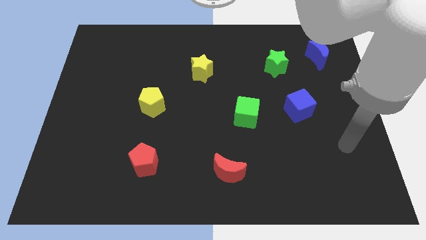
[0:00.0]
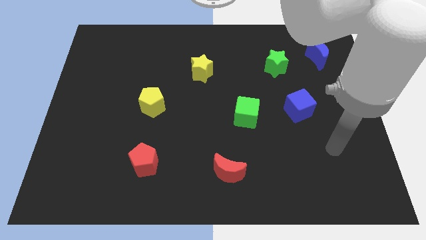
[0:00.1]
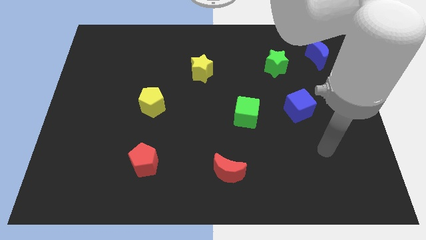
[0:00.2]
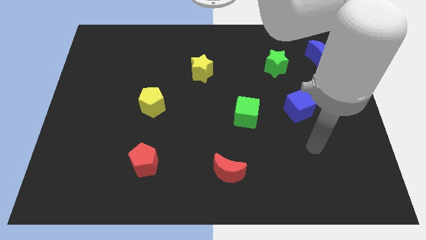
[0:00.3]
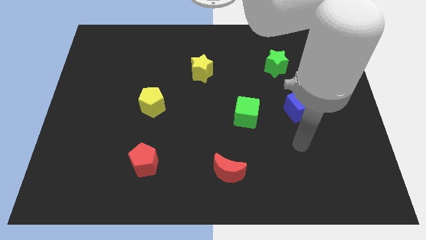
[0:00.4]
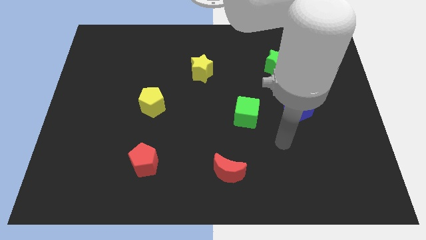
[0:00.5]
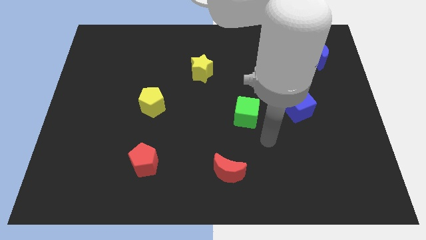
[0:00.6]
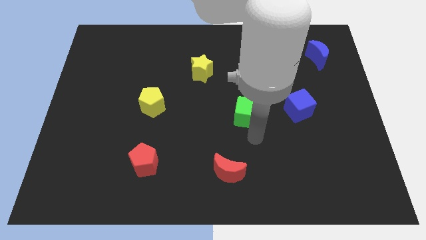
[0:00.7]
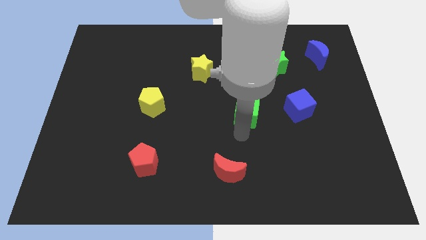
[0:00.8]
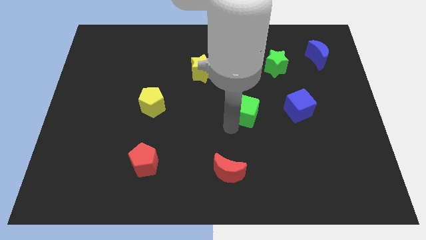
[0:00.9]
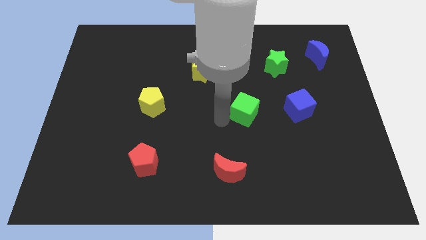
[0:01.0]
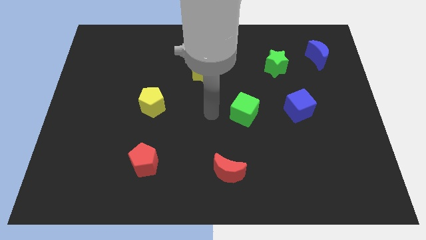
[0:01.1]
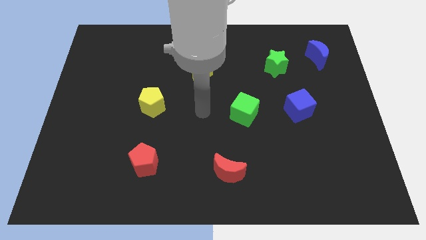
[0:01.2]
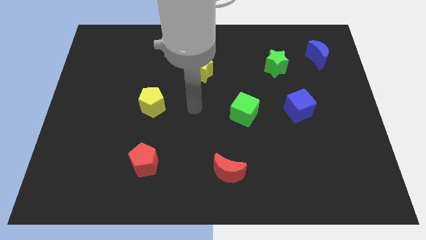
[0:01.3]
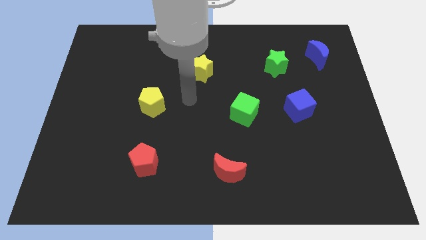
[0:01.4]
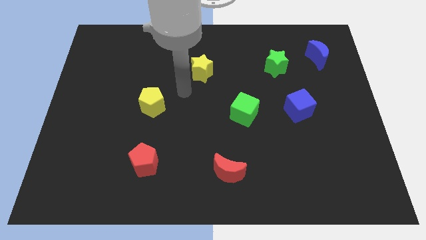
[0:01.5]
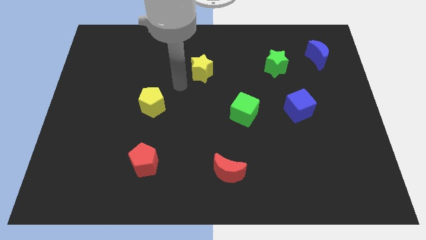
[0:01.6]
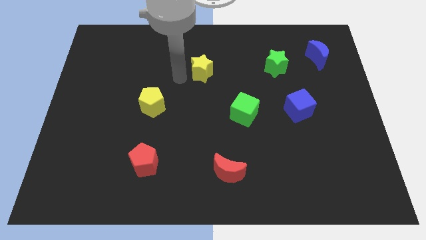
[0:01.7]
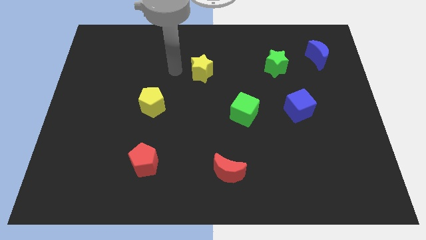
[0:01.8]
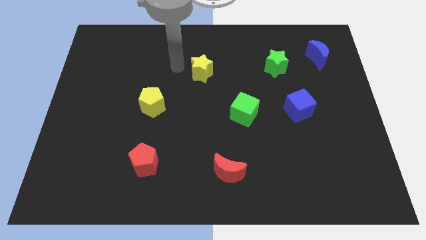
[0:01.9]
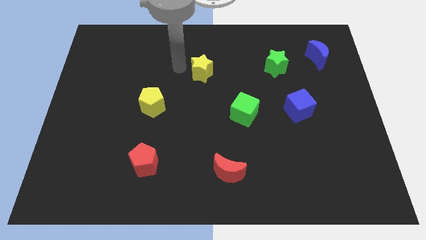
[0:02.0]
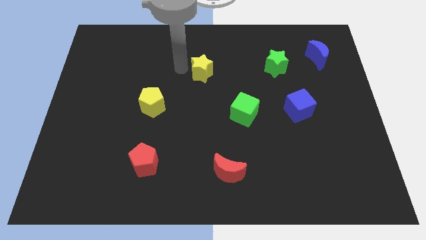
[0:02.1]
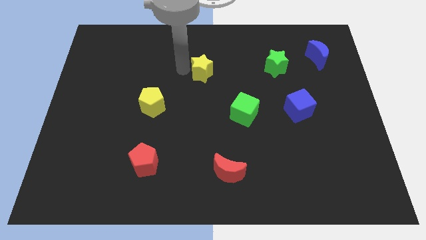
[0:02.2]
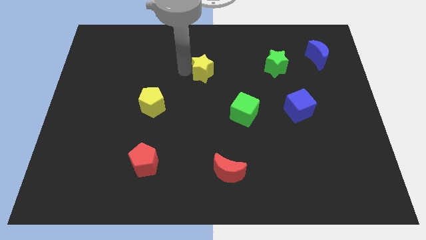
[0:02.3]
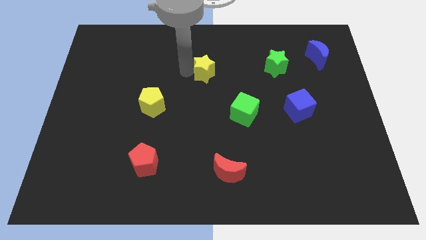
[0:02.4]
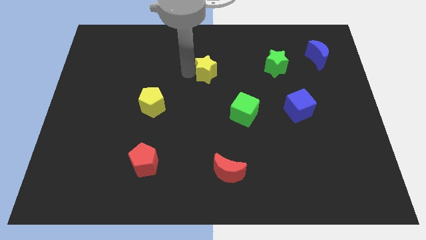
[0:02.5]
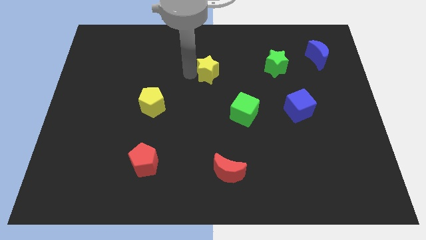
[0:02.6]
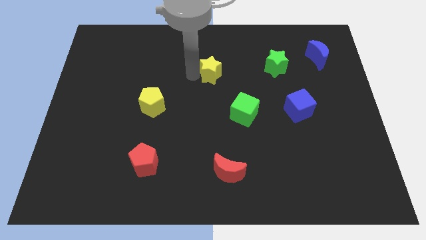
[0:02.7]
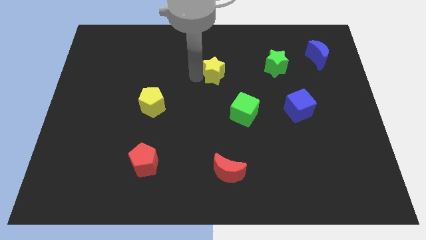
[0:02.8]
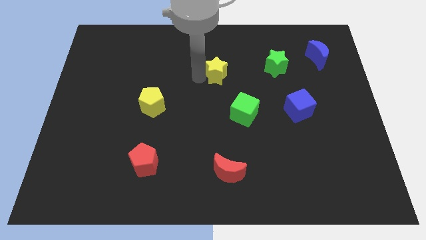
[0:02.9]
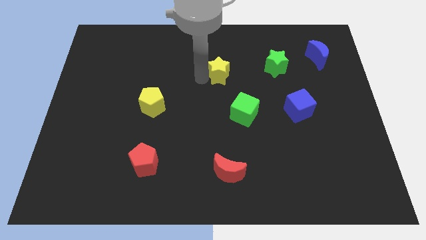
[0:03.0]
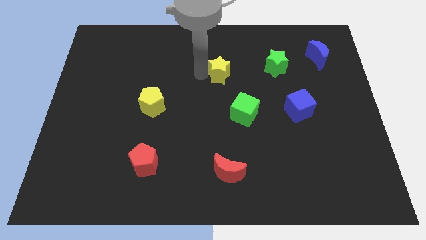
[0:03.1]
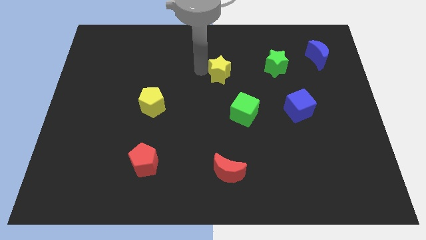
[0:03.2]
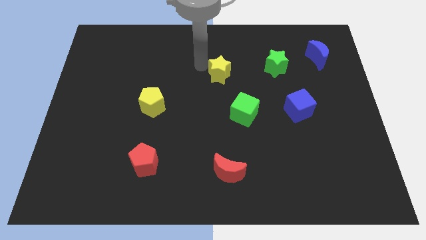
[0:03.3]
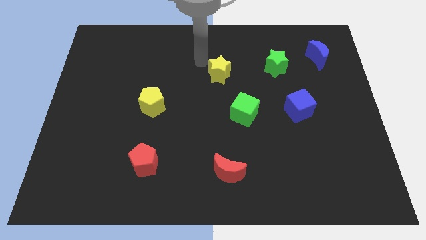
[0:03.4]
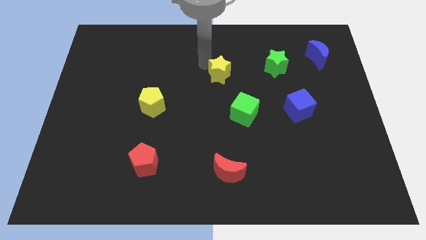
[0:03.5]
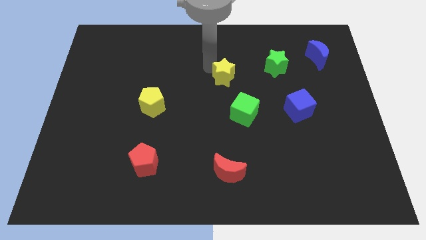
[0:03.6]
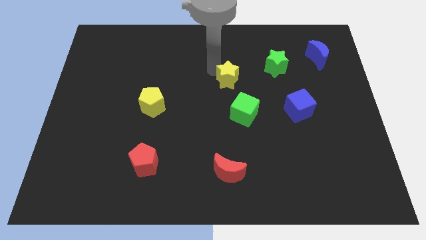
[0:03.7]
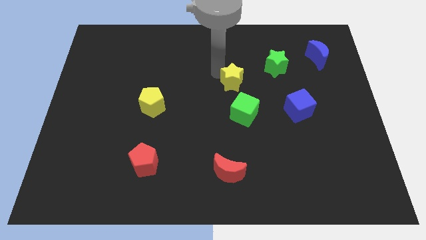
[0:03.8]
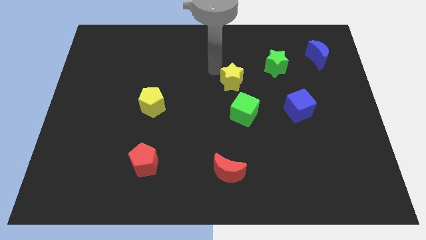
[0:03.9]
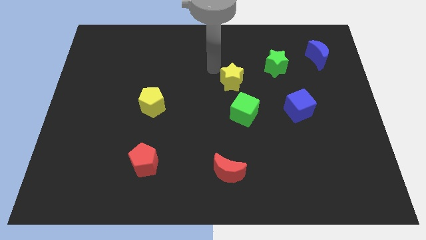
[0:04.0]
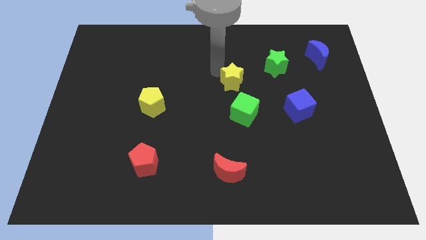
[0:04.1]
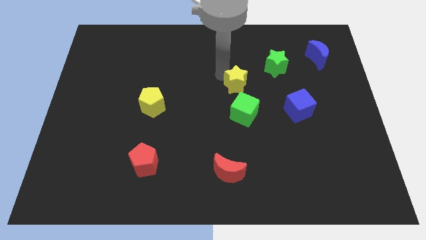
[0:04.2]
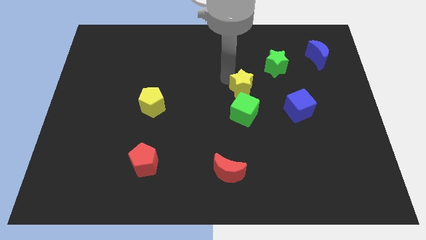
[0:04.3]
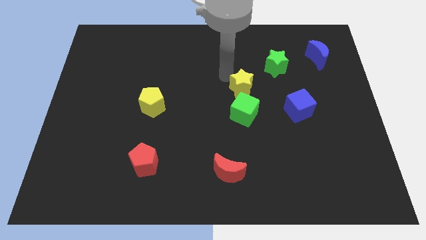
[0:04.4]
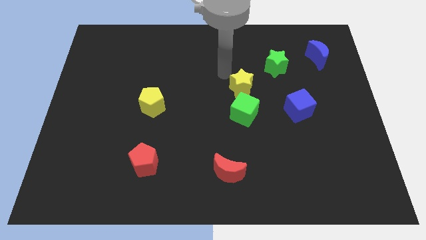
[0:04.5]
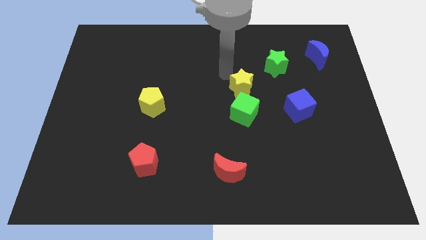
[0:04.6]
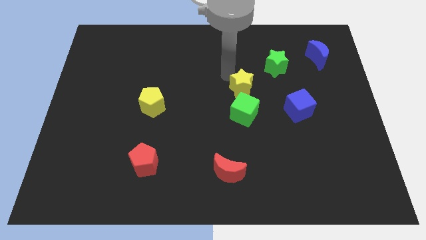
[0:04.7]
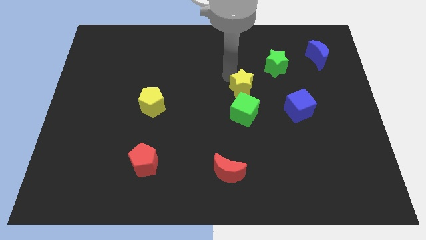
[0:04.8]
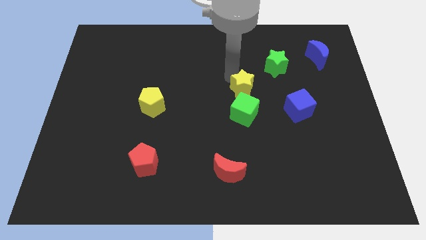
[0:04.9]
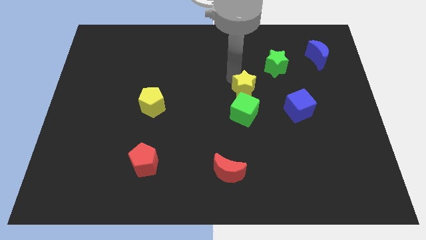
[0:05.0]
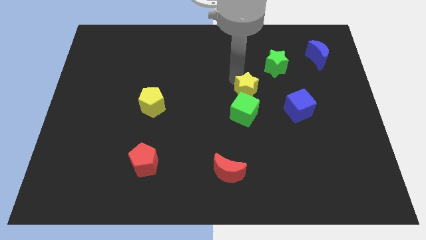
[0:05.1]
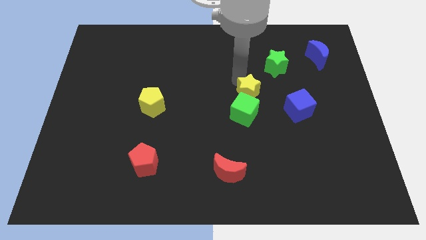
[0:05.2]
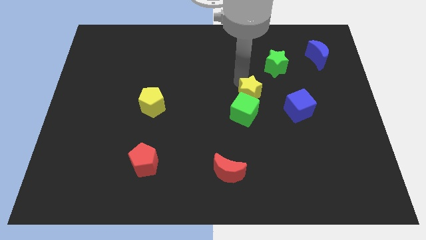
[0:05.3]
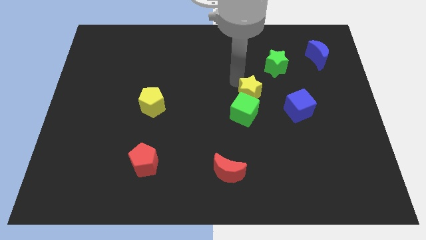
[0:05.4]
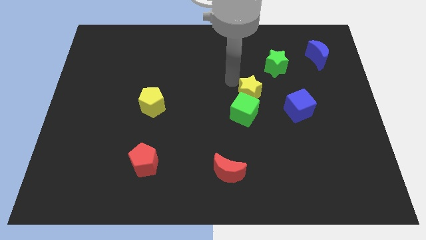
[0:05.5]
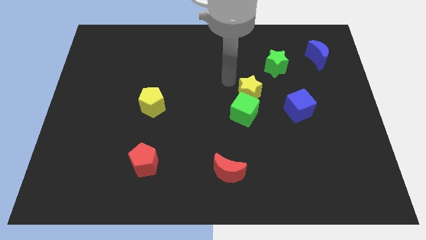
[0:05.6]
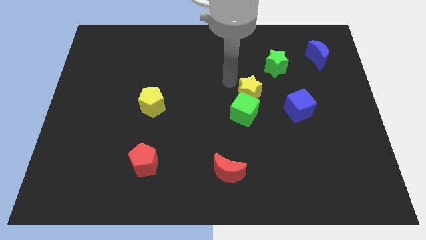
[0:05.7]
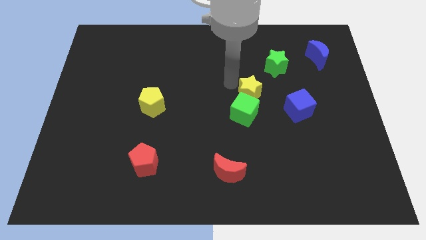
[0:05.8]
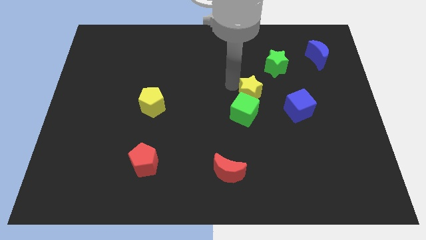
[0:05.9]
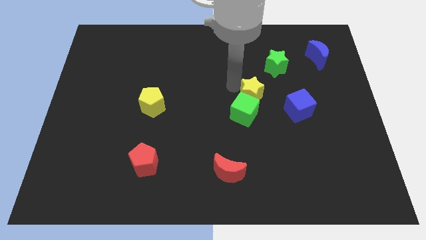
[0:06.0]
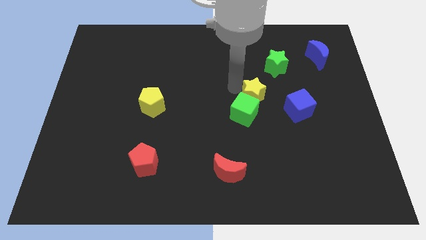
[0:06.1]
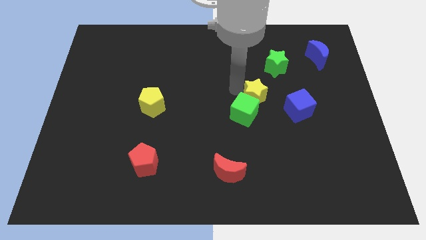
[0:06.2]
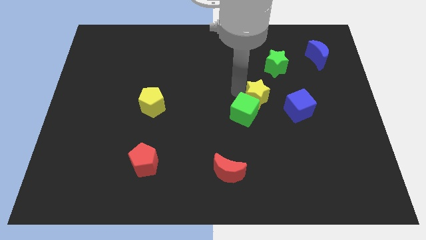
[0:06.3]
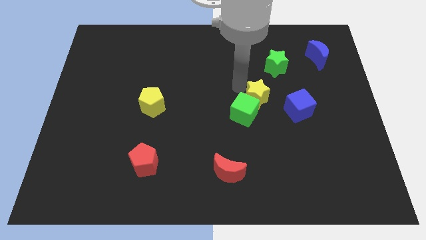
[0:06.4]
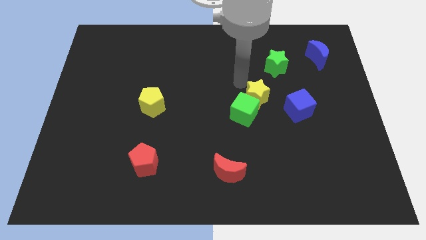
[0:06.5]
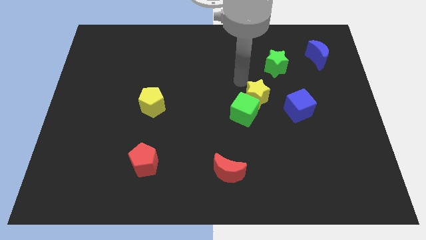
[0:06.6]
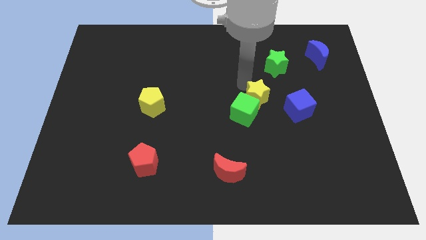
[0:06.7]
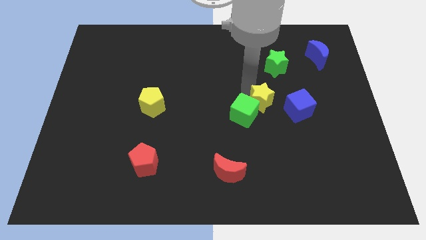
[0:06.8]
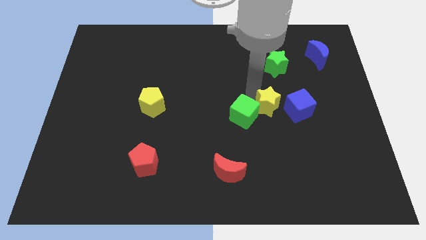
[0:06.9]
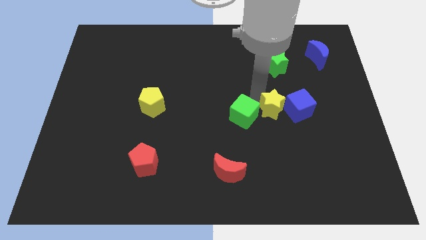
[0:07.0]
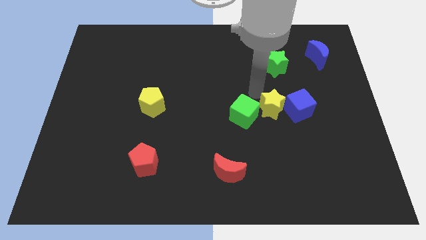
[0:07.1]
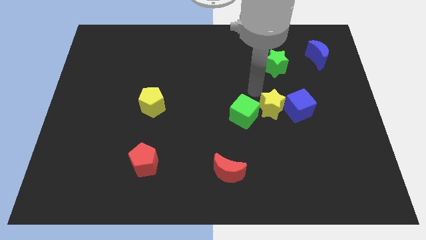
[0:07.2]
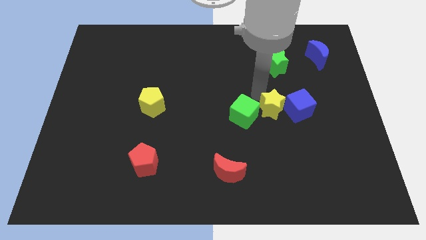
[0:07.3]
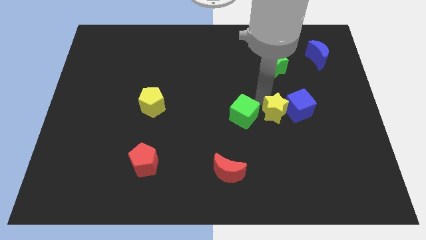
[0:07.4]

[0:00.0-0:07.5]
move the yellow star diagonally downwards and right

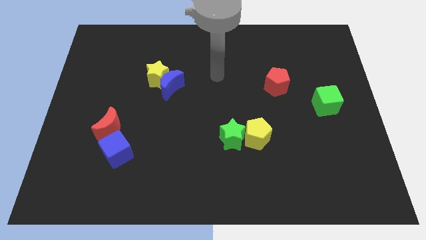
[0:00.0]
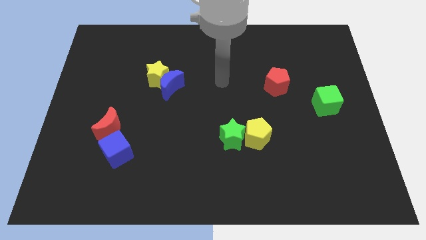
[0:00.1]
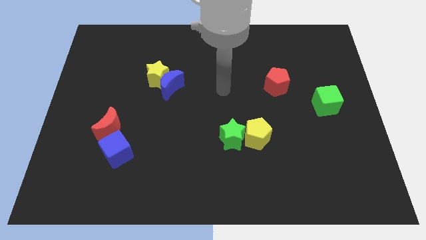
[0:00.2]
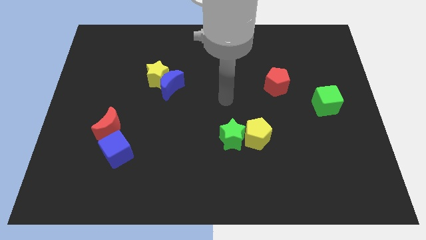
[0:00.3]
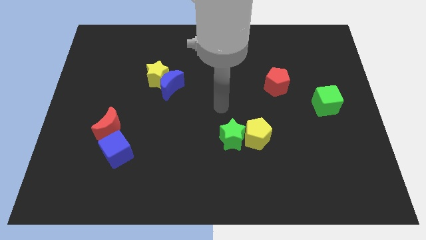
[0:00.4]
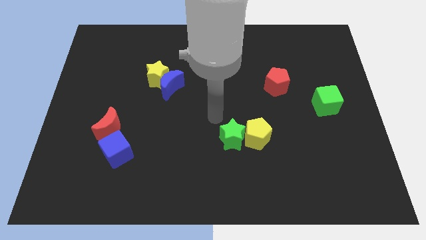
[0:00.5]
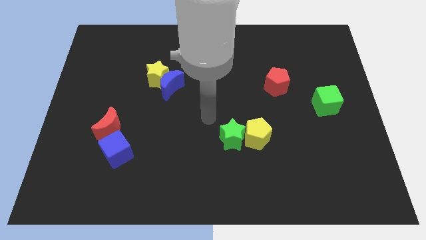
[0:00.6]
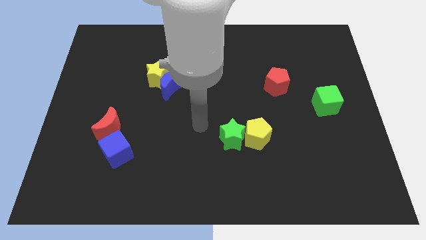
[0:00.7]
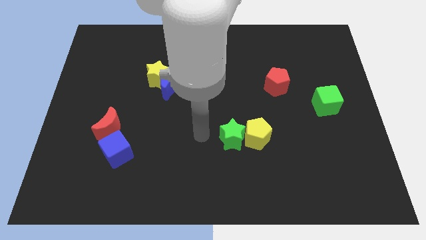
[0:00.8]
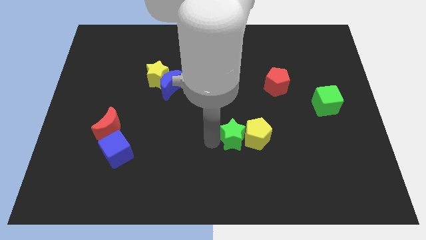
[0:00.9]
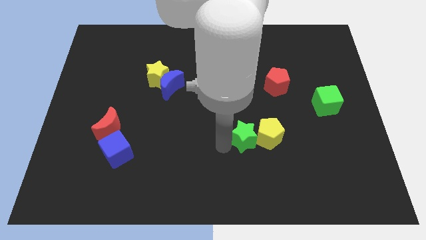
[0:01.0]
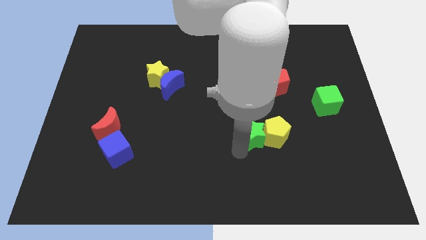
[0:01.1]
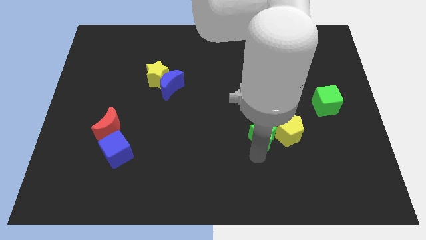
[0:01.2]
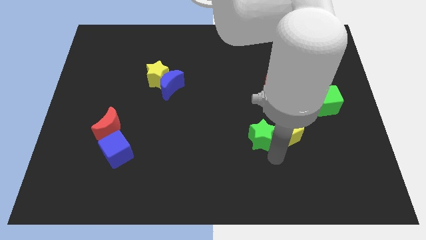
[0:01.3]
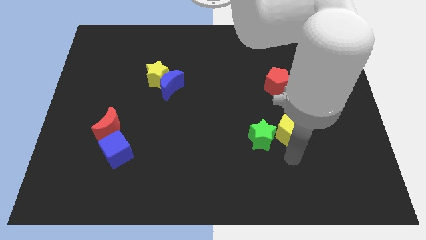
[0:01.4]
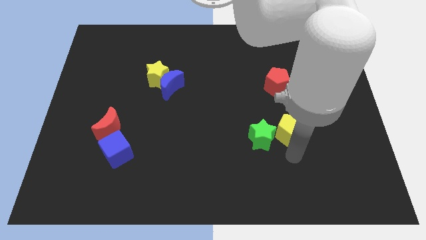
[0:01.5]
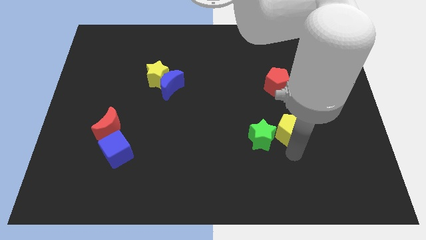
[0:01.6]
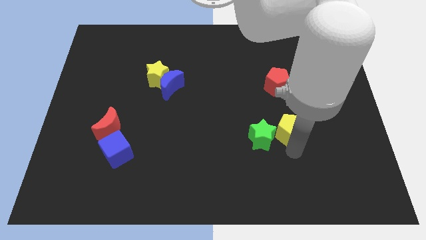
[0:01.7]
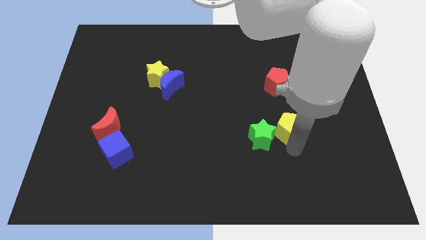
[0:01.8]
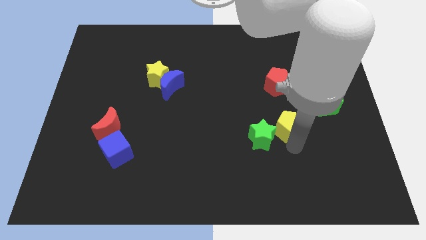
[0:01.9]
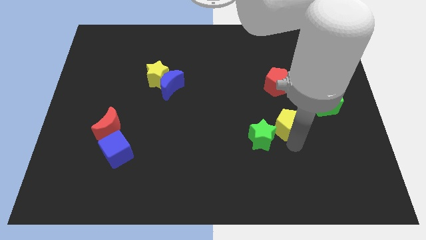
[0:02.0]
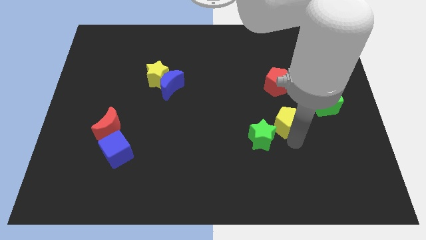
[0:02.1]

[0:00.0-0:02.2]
slightly move the yellow pentagon upwards and then to the right
